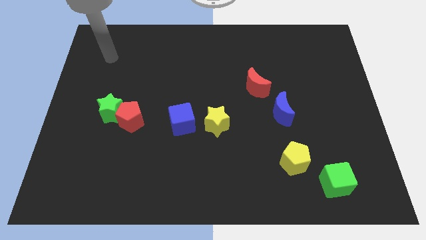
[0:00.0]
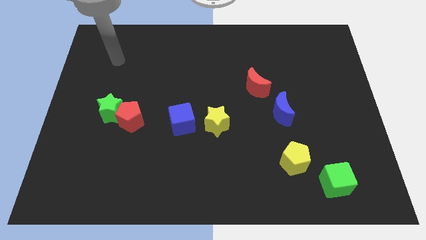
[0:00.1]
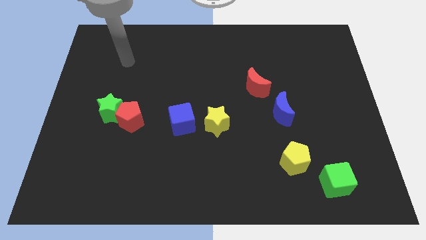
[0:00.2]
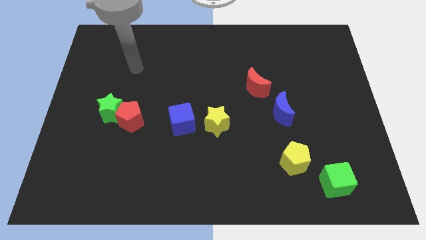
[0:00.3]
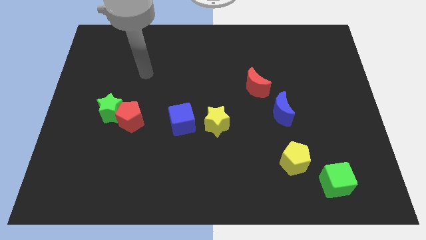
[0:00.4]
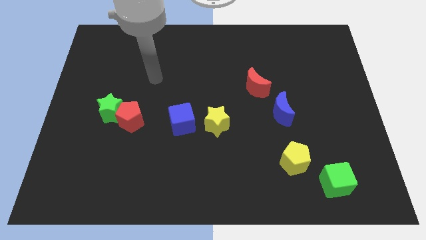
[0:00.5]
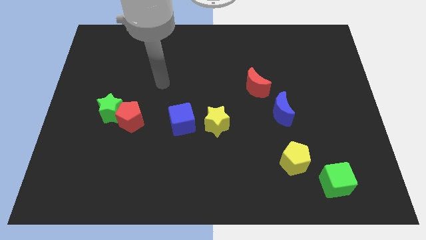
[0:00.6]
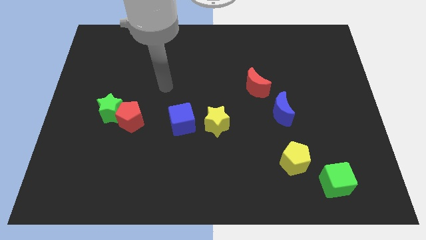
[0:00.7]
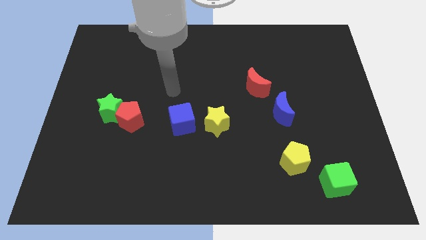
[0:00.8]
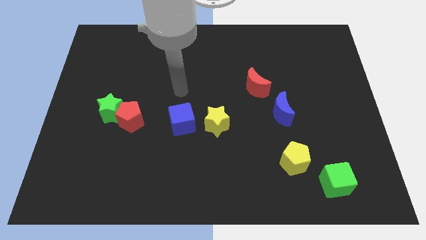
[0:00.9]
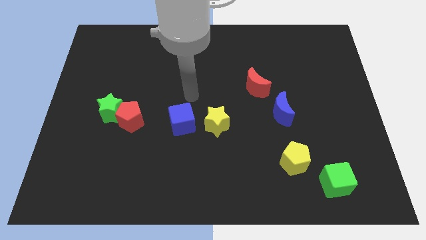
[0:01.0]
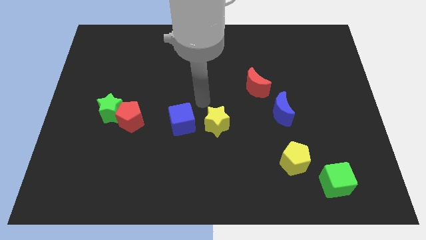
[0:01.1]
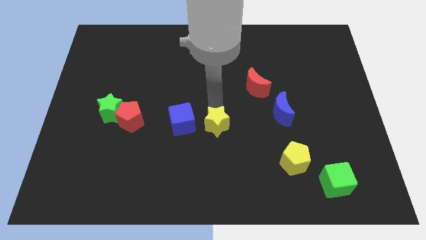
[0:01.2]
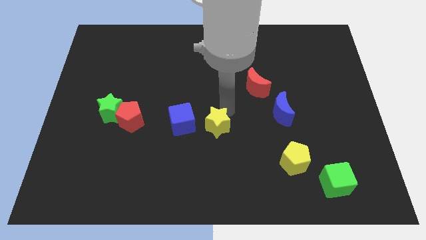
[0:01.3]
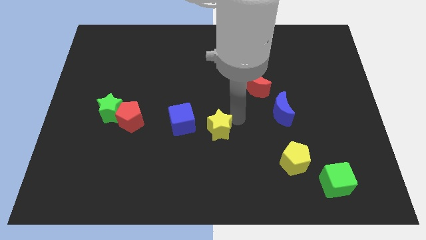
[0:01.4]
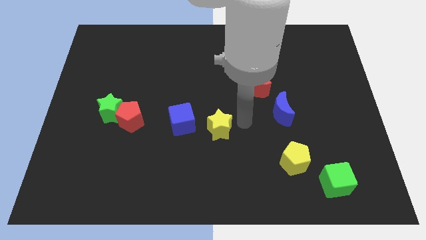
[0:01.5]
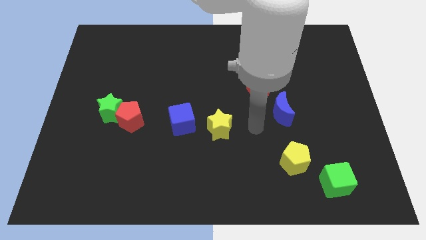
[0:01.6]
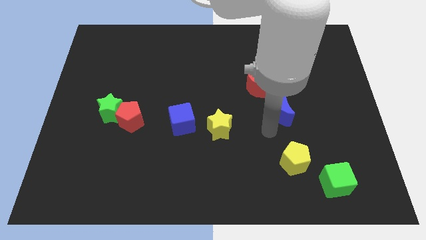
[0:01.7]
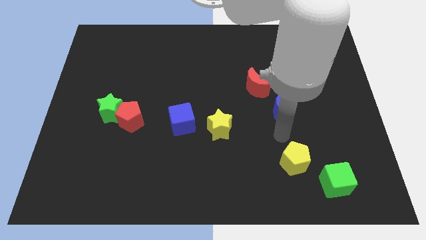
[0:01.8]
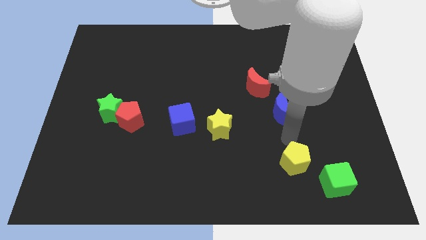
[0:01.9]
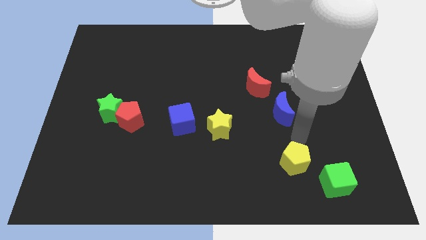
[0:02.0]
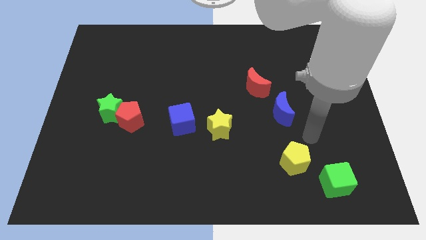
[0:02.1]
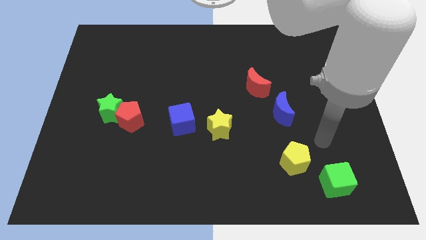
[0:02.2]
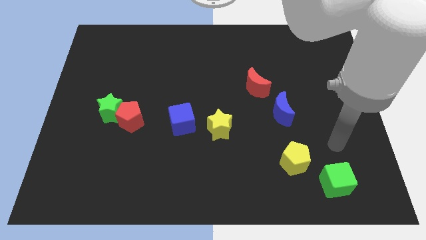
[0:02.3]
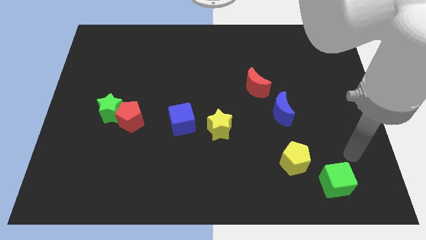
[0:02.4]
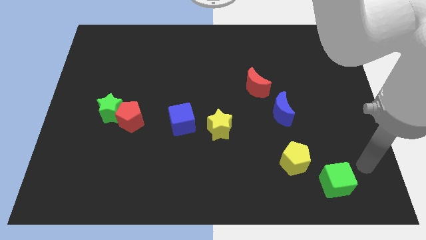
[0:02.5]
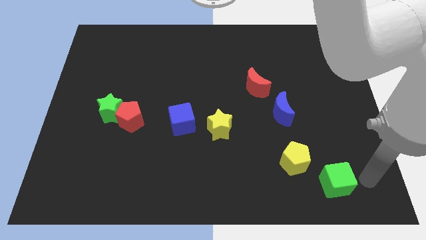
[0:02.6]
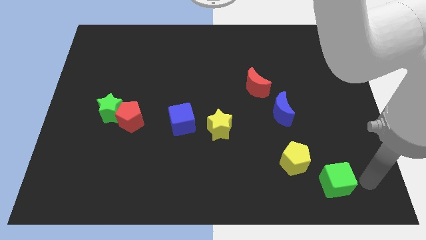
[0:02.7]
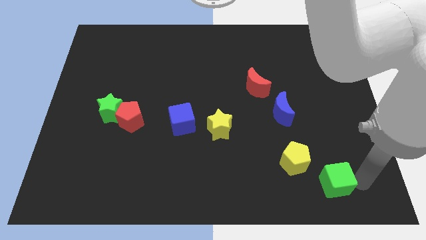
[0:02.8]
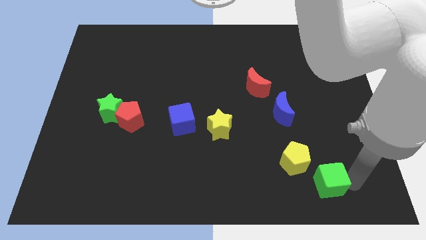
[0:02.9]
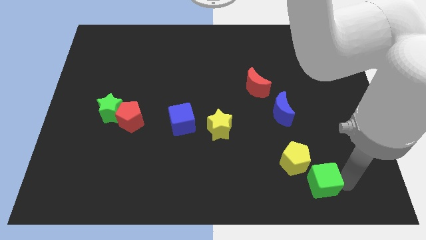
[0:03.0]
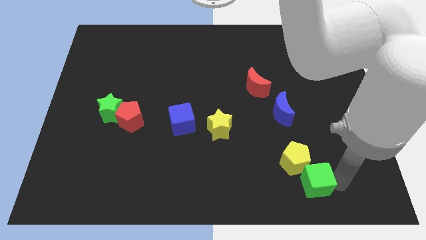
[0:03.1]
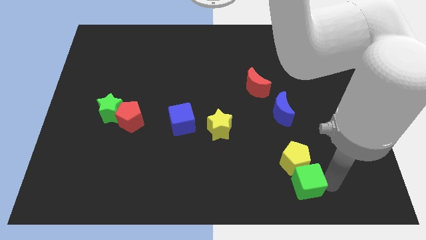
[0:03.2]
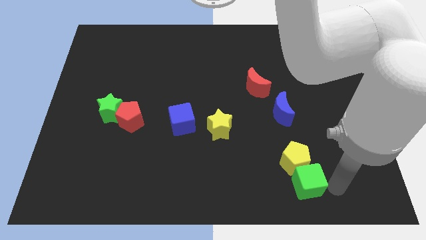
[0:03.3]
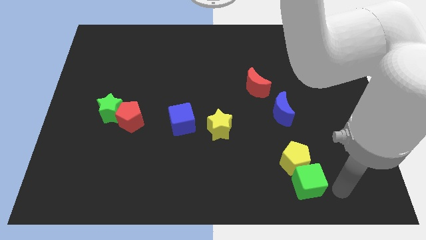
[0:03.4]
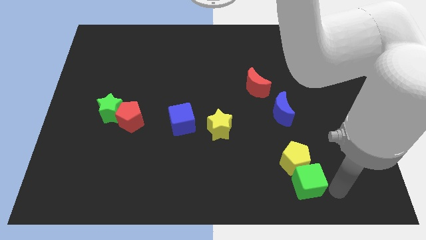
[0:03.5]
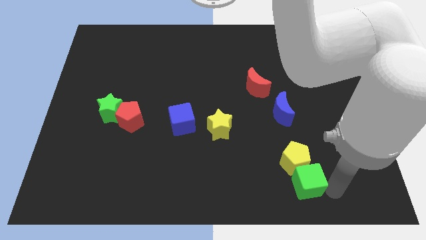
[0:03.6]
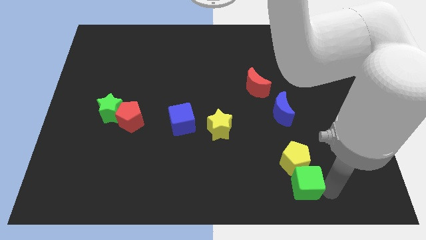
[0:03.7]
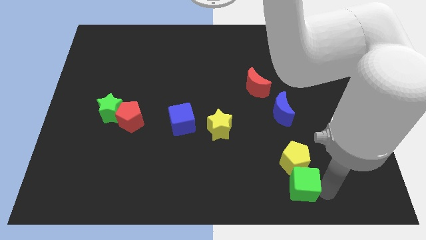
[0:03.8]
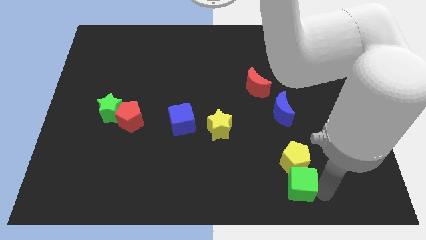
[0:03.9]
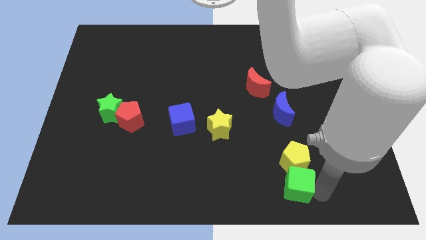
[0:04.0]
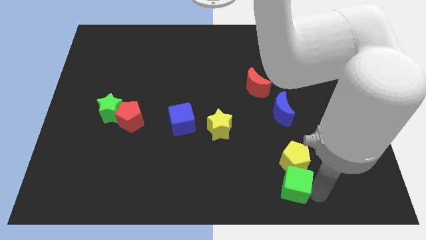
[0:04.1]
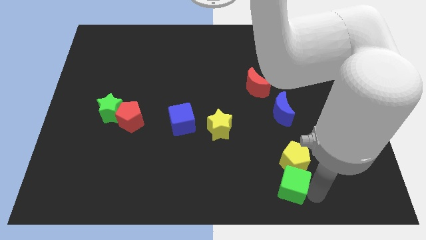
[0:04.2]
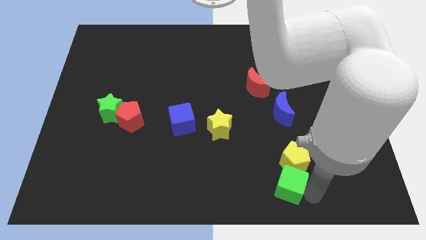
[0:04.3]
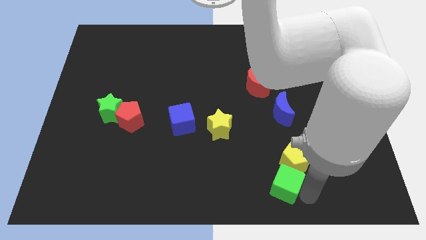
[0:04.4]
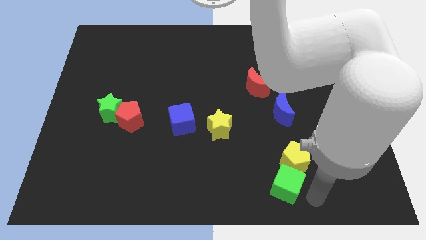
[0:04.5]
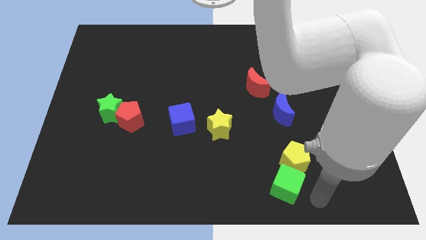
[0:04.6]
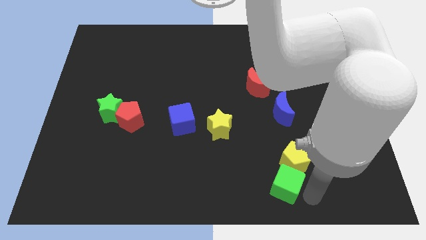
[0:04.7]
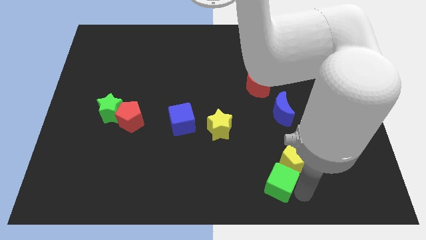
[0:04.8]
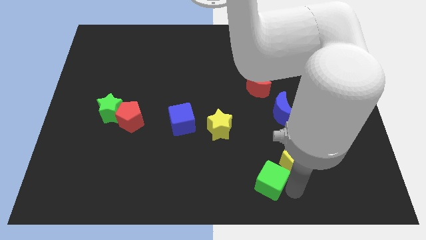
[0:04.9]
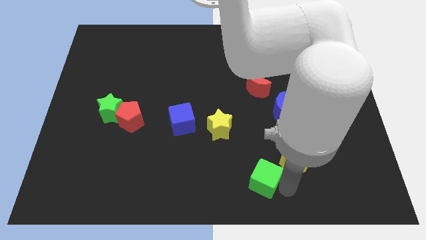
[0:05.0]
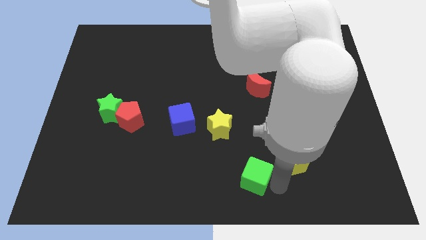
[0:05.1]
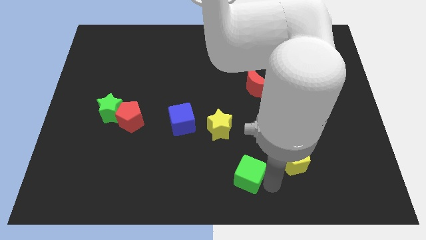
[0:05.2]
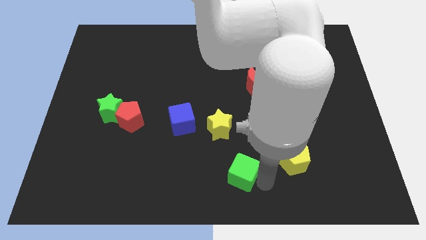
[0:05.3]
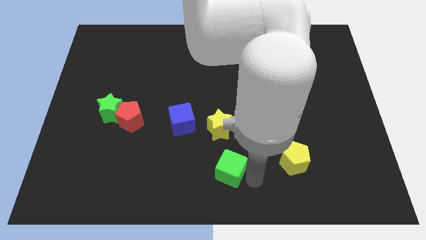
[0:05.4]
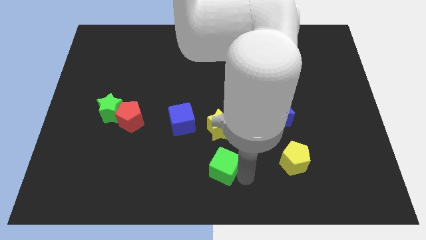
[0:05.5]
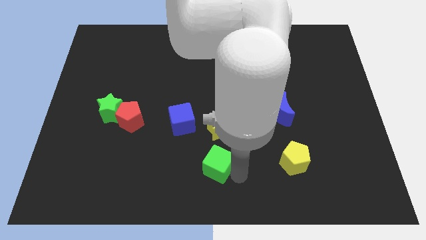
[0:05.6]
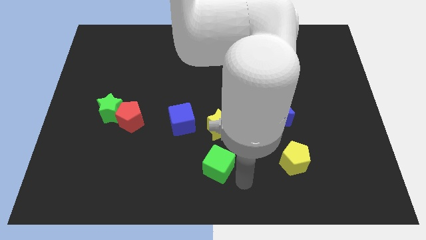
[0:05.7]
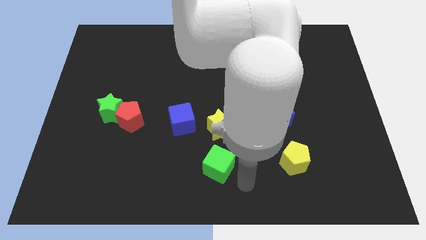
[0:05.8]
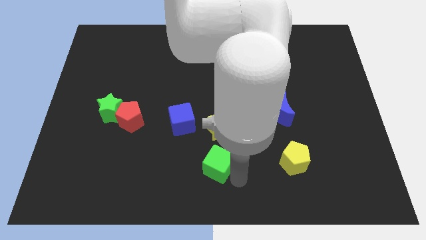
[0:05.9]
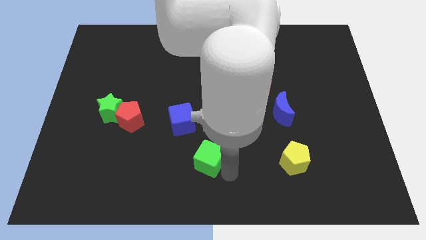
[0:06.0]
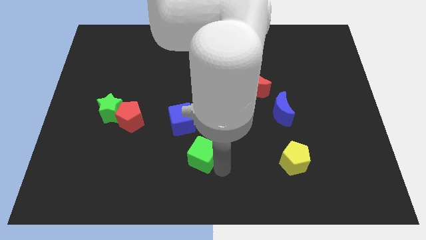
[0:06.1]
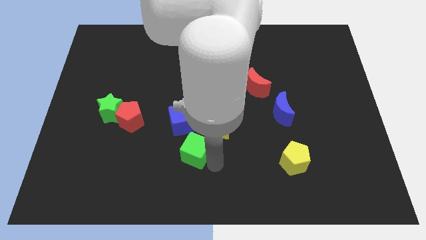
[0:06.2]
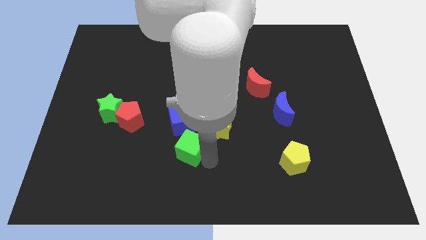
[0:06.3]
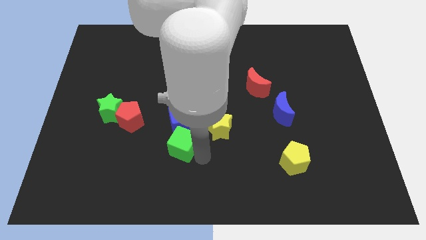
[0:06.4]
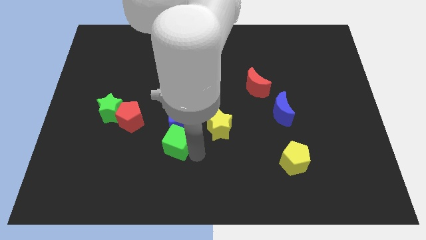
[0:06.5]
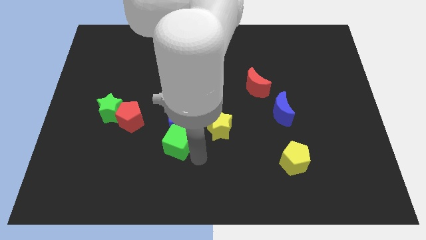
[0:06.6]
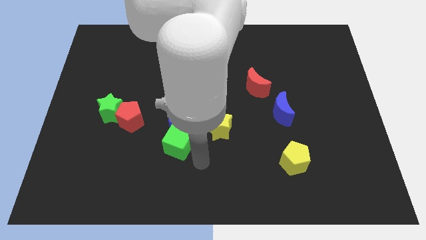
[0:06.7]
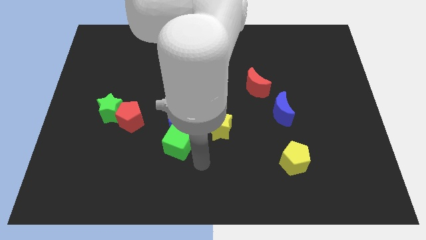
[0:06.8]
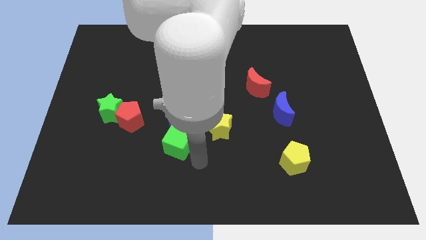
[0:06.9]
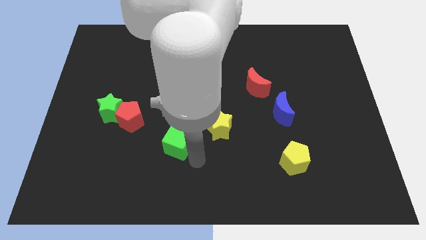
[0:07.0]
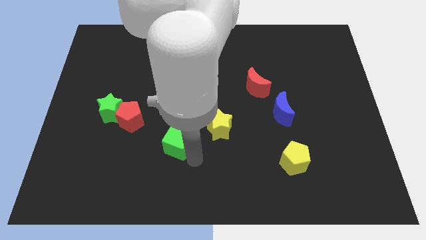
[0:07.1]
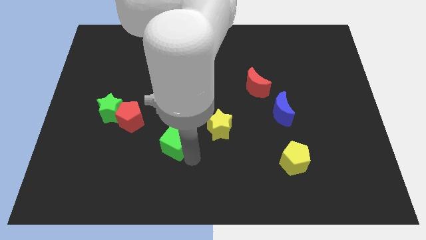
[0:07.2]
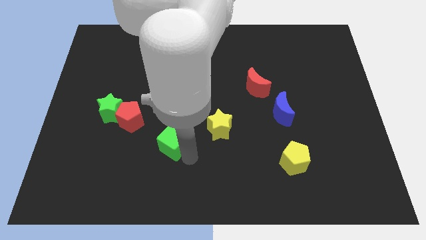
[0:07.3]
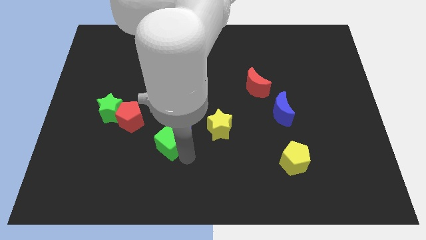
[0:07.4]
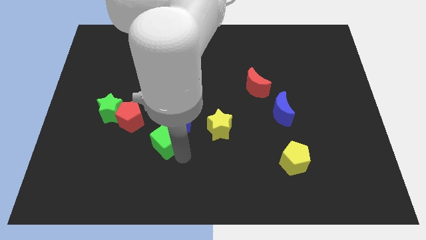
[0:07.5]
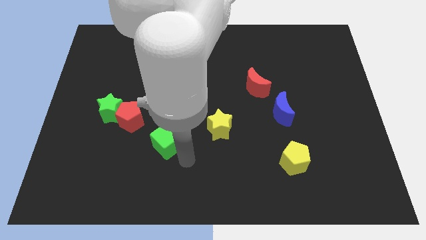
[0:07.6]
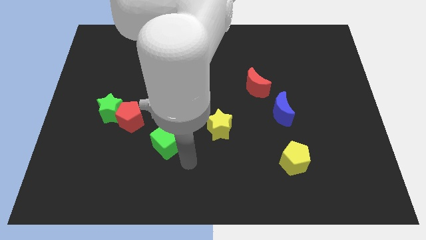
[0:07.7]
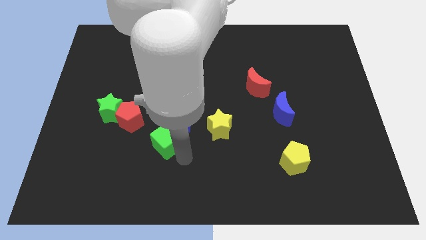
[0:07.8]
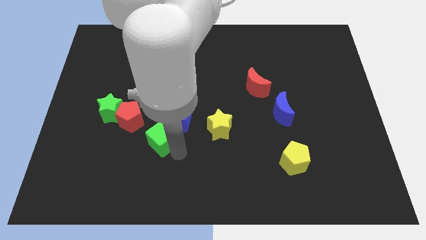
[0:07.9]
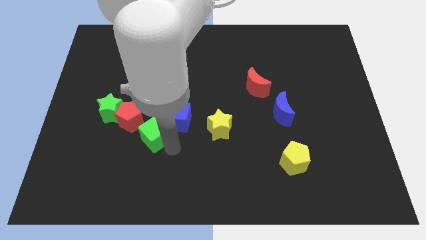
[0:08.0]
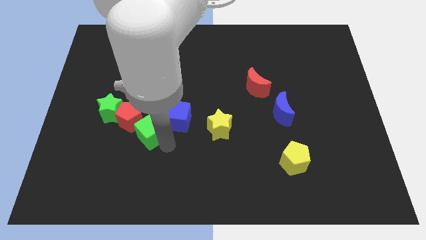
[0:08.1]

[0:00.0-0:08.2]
move the green cube to the red pentagon
